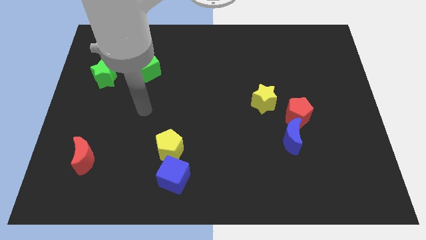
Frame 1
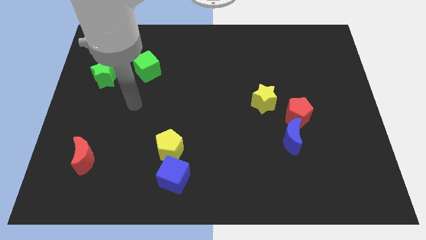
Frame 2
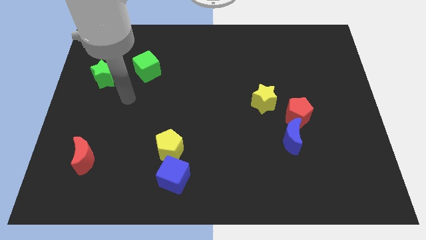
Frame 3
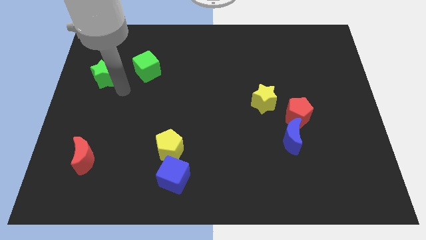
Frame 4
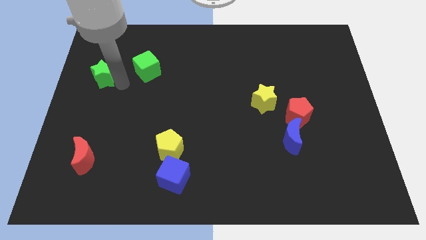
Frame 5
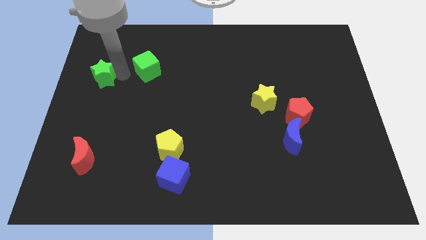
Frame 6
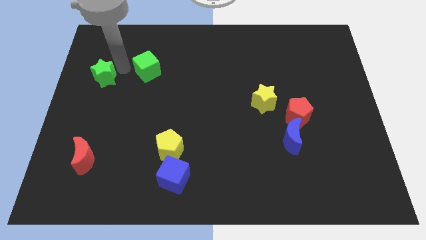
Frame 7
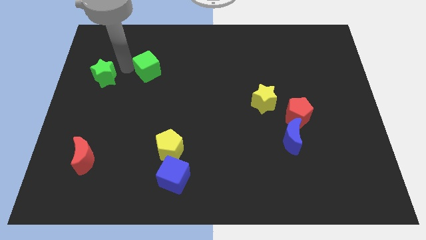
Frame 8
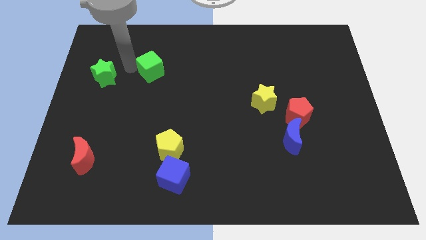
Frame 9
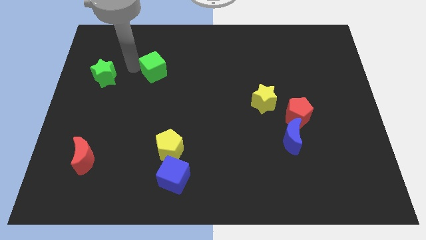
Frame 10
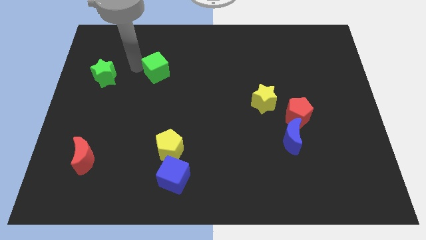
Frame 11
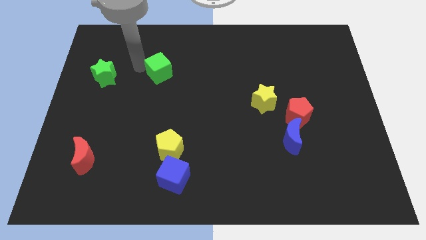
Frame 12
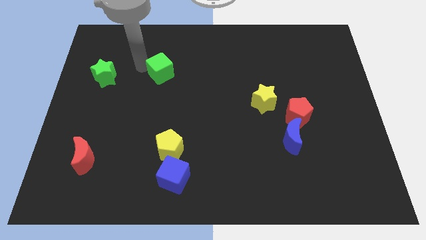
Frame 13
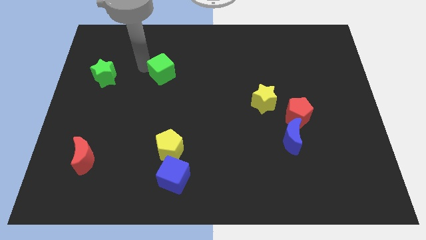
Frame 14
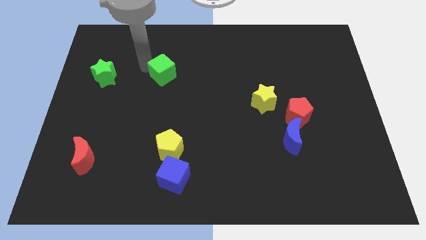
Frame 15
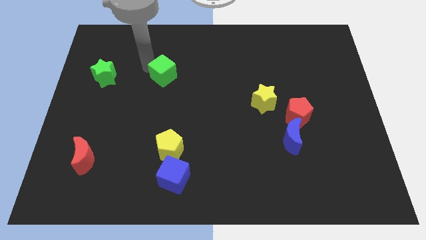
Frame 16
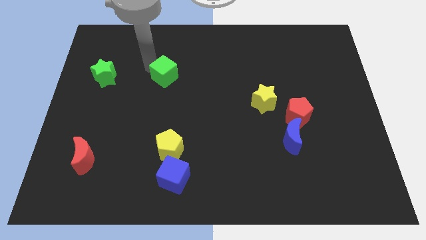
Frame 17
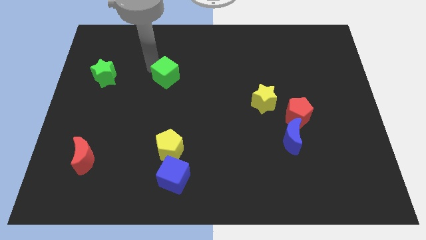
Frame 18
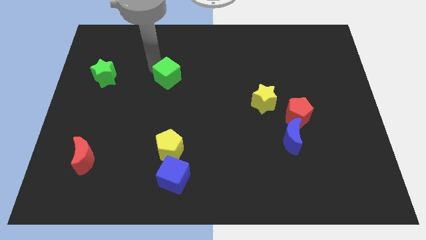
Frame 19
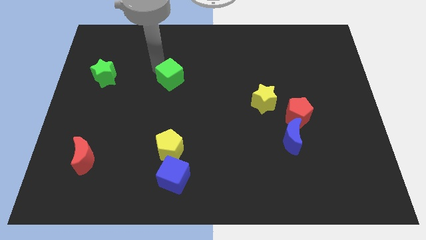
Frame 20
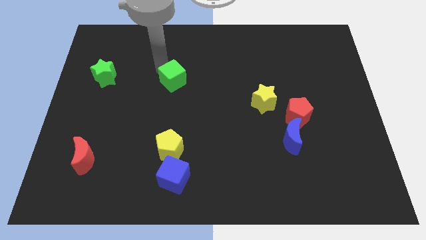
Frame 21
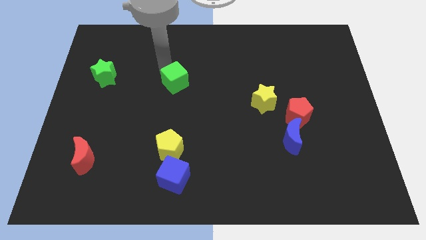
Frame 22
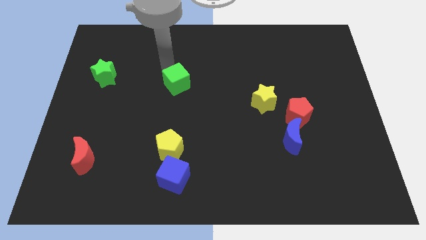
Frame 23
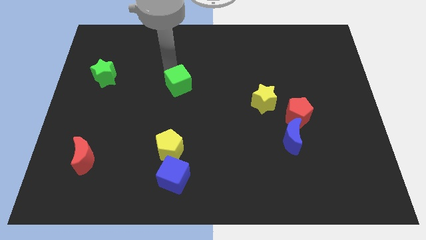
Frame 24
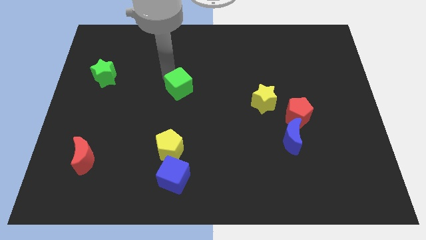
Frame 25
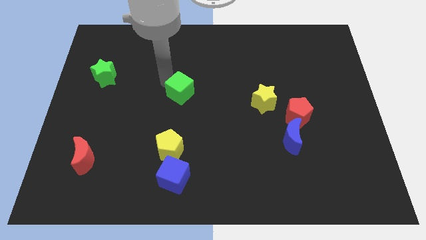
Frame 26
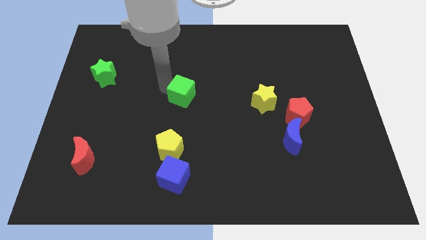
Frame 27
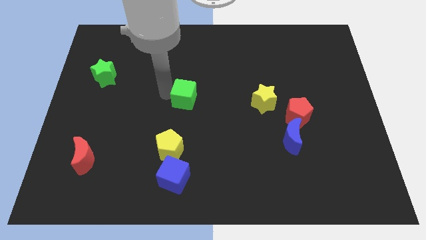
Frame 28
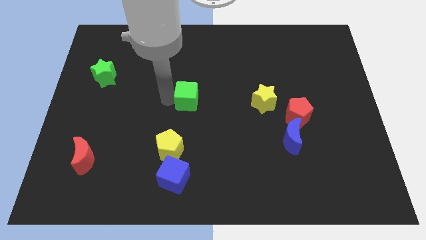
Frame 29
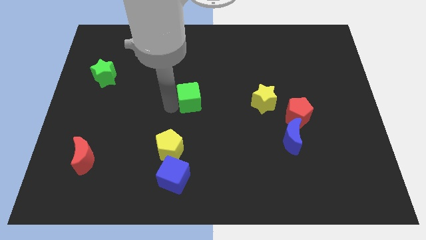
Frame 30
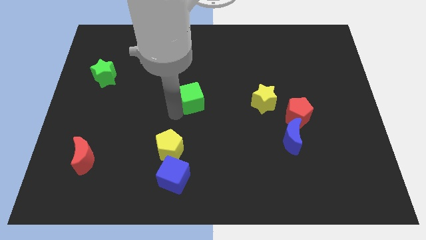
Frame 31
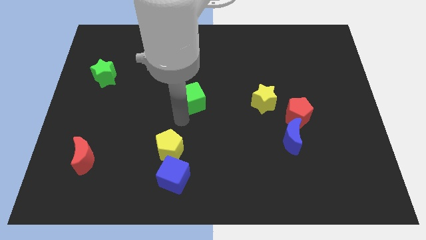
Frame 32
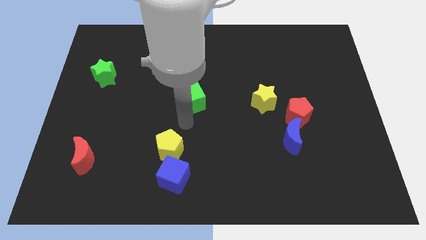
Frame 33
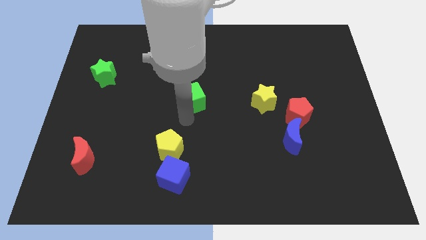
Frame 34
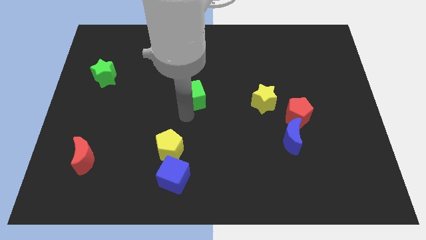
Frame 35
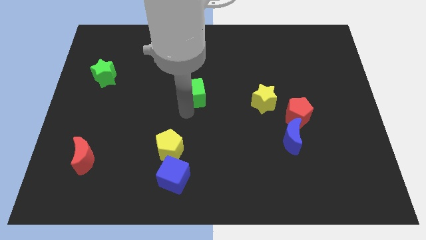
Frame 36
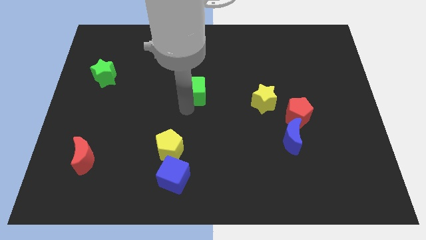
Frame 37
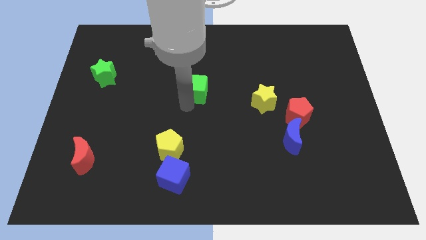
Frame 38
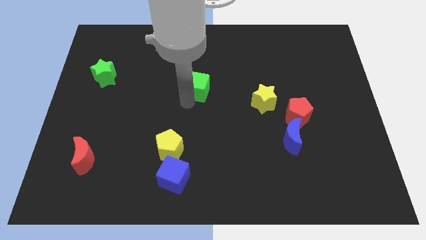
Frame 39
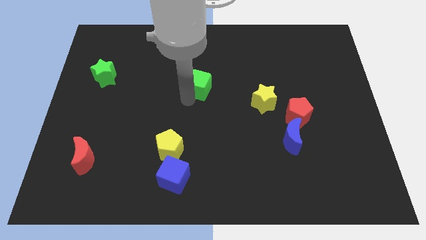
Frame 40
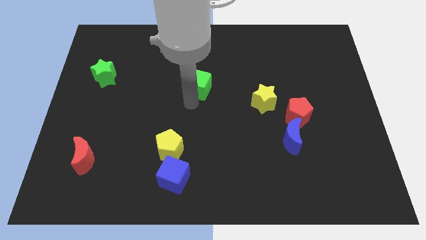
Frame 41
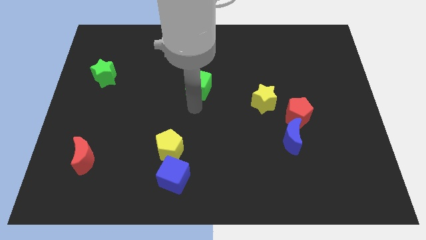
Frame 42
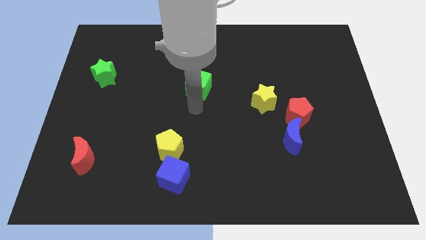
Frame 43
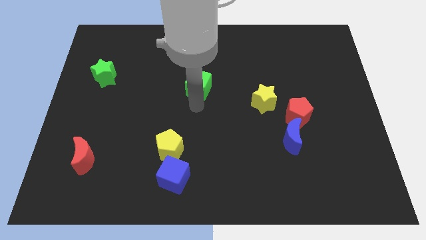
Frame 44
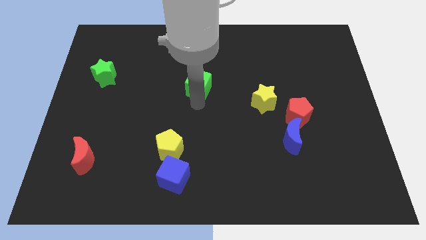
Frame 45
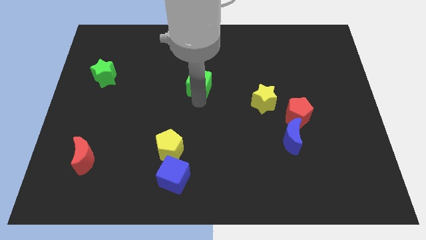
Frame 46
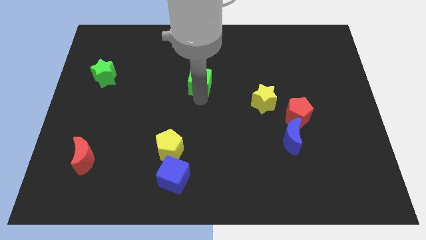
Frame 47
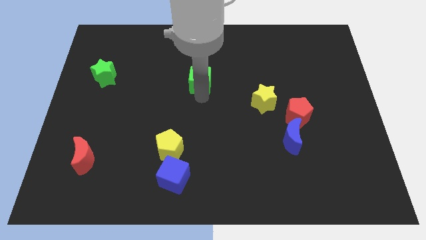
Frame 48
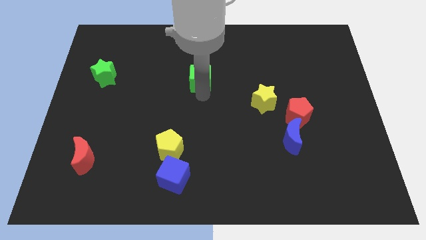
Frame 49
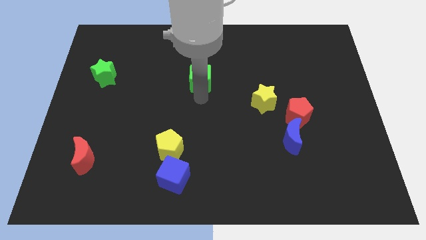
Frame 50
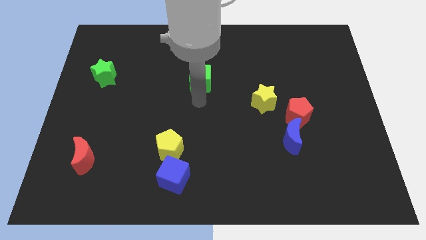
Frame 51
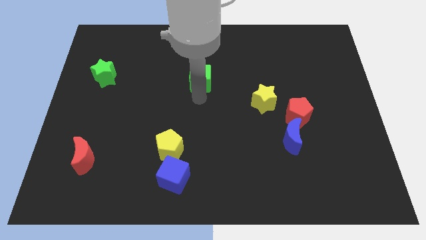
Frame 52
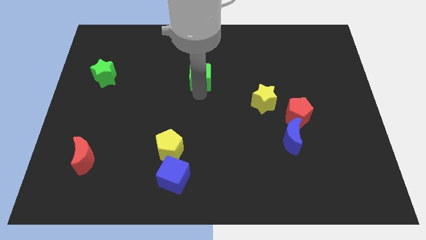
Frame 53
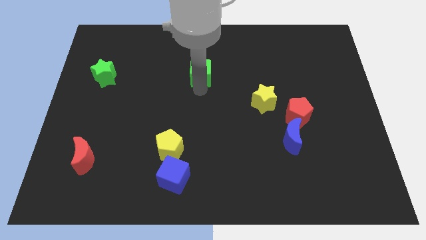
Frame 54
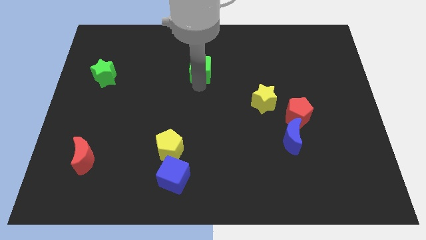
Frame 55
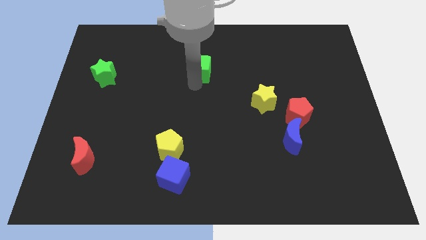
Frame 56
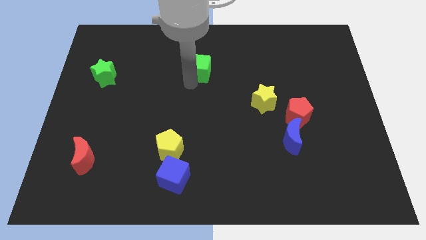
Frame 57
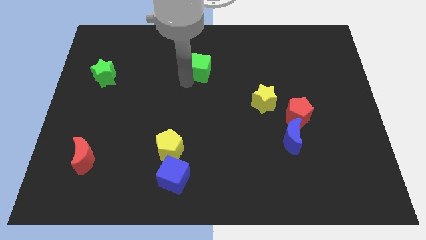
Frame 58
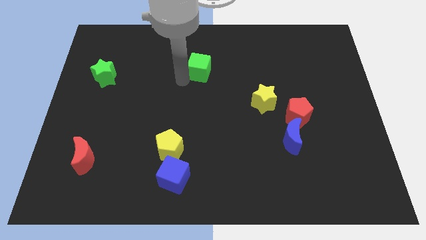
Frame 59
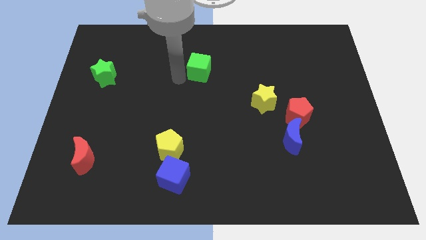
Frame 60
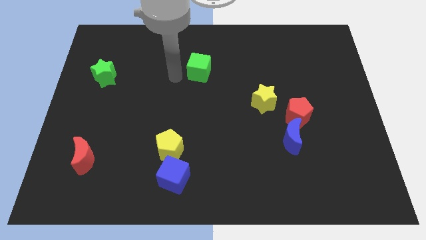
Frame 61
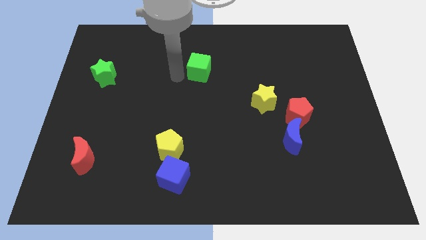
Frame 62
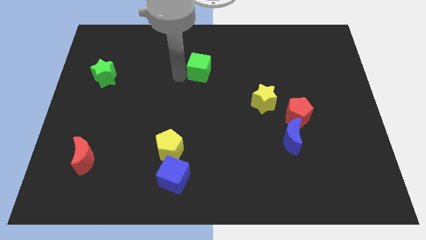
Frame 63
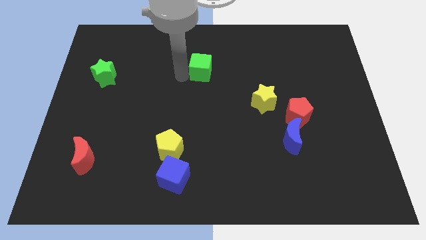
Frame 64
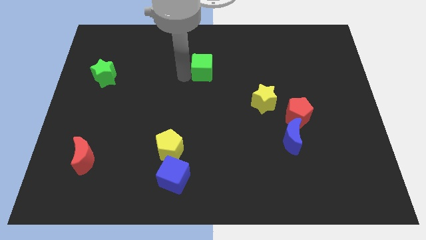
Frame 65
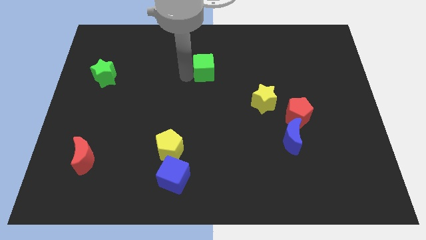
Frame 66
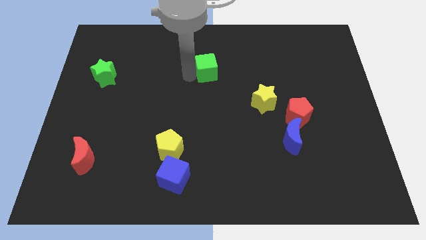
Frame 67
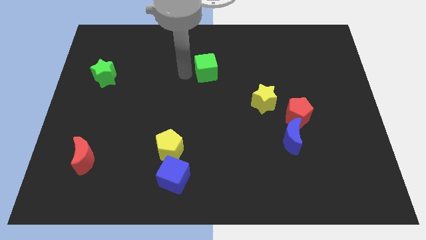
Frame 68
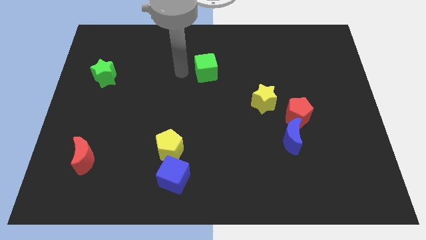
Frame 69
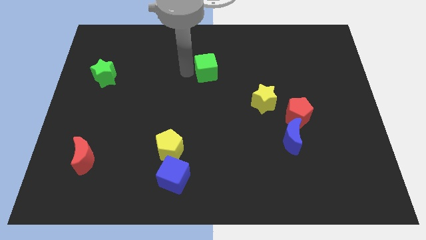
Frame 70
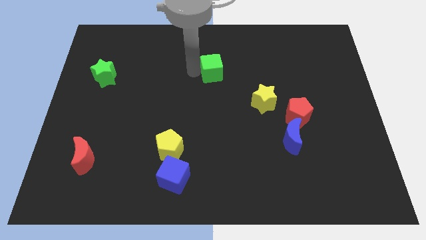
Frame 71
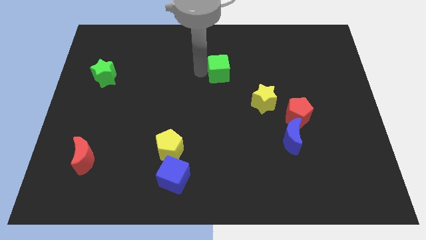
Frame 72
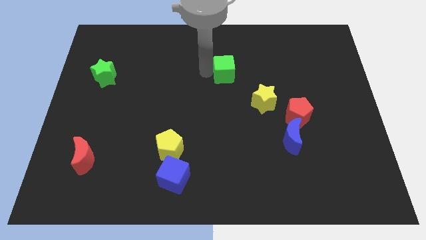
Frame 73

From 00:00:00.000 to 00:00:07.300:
slide the green cube right

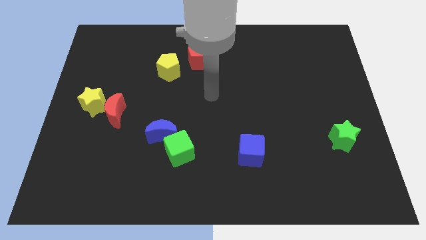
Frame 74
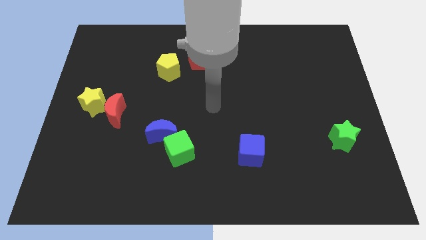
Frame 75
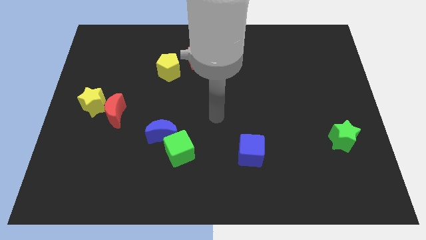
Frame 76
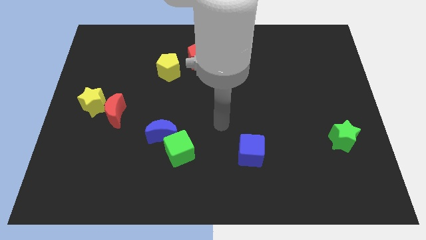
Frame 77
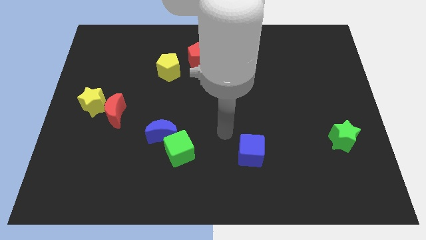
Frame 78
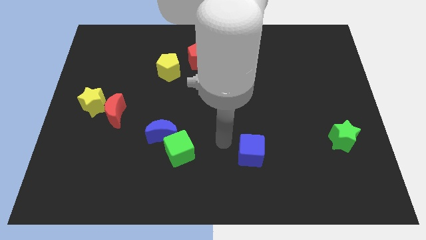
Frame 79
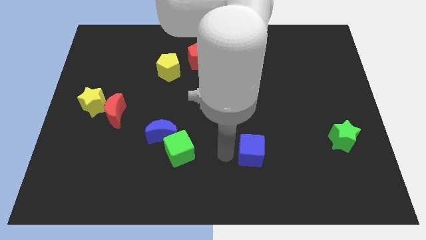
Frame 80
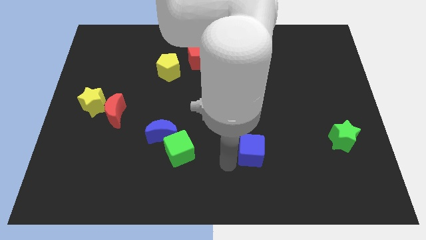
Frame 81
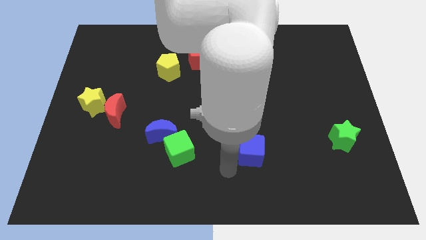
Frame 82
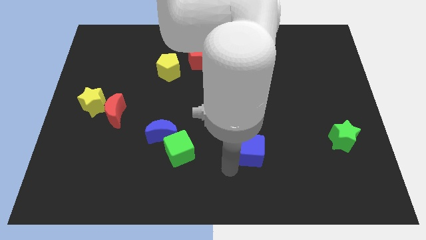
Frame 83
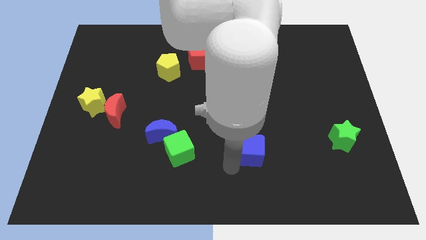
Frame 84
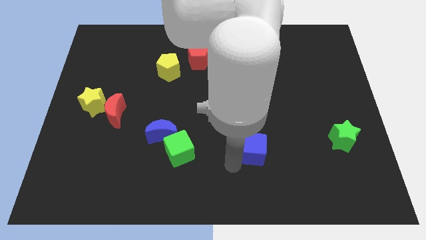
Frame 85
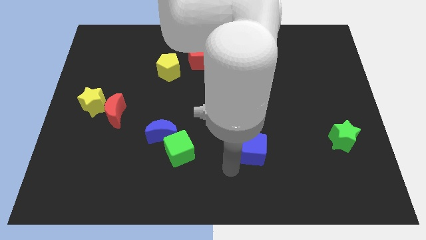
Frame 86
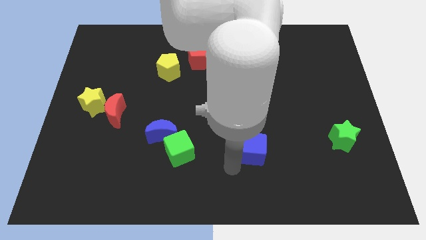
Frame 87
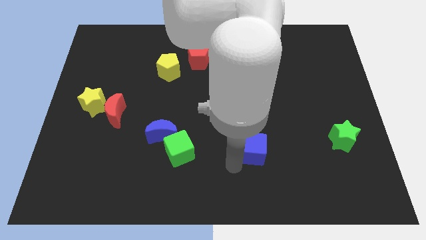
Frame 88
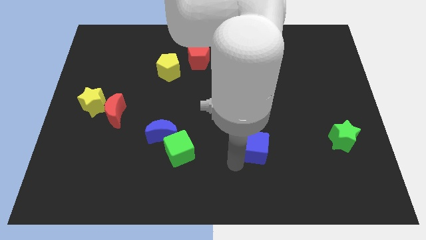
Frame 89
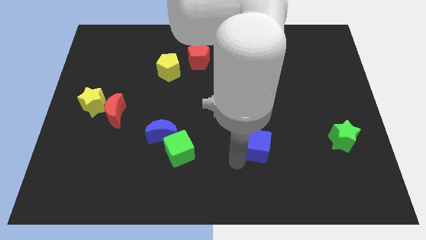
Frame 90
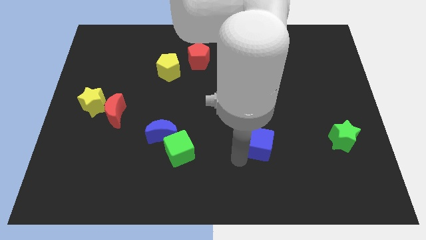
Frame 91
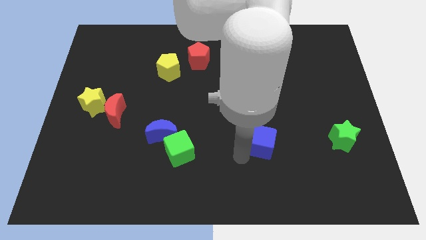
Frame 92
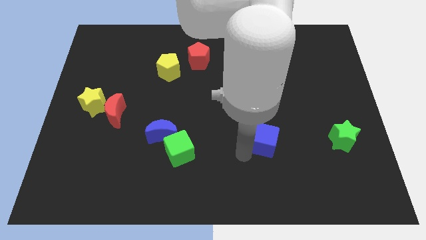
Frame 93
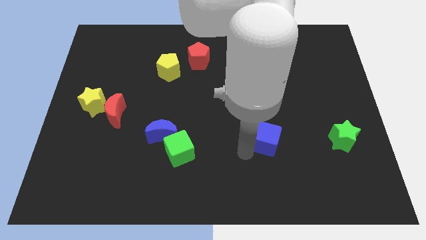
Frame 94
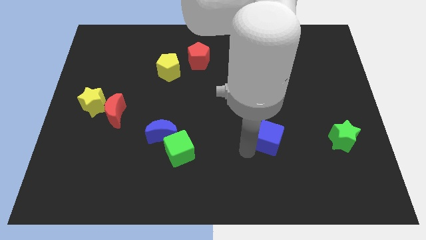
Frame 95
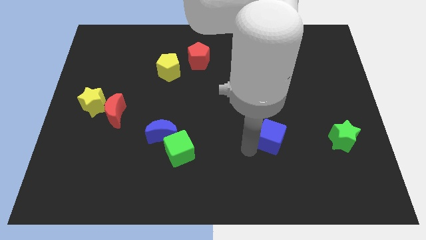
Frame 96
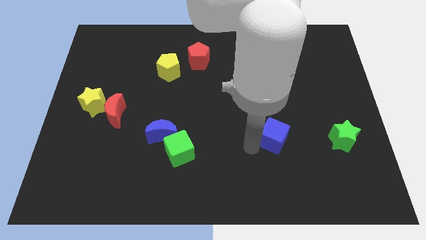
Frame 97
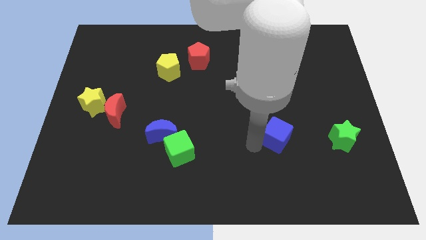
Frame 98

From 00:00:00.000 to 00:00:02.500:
slightly push the blue cube diagonally upwards and to the right
